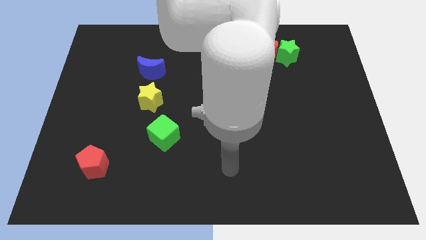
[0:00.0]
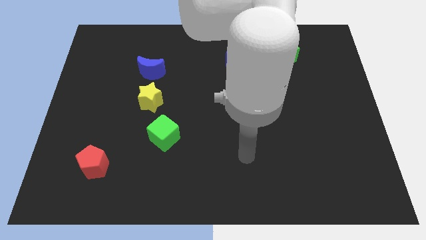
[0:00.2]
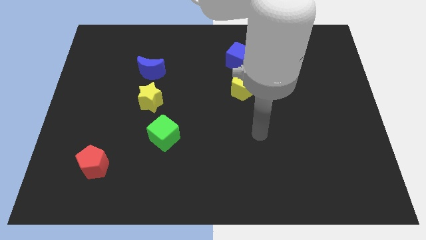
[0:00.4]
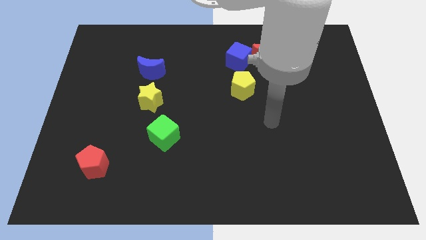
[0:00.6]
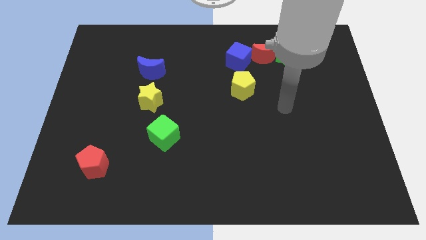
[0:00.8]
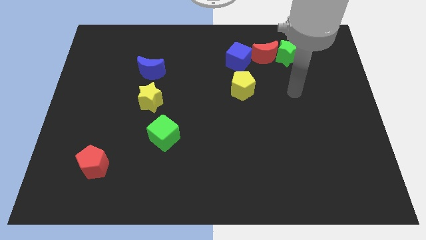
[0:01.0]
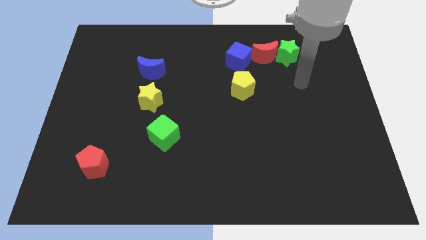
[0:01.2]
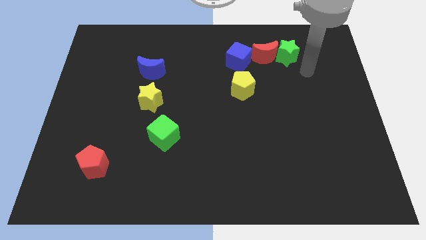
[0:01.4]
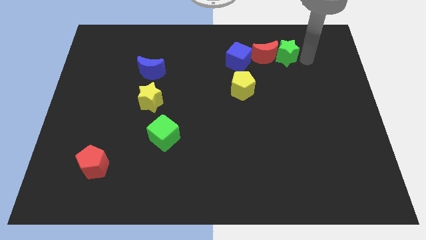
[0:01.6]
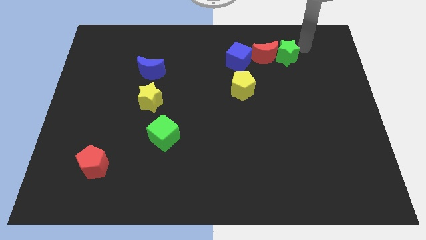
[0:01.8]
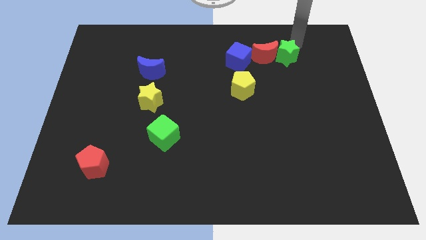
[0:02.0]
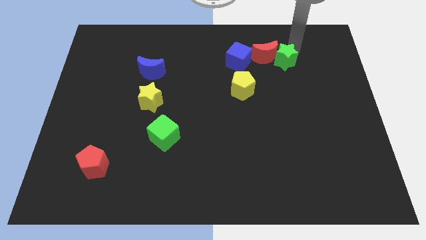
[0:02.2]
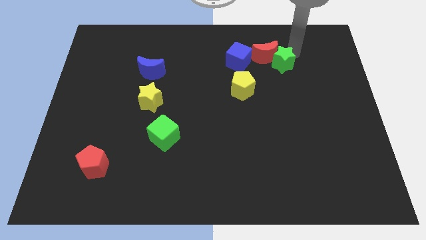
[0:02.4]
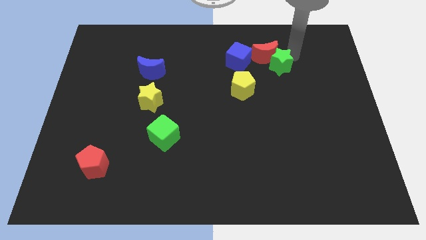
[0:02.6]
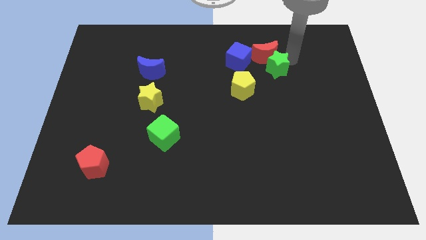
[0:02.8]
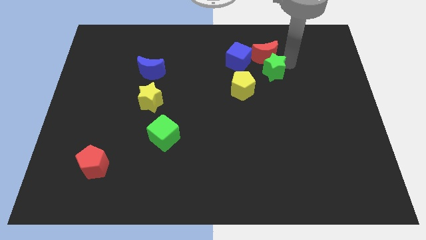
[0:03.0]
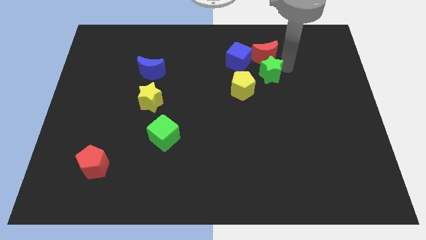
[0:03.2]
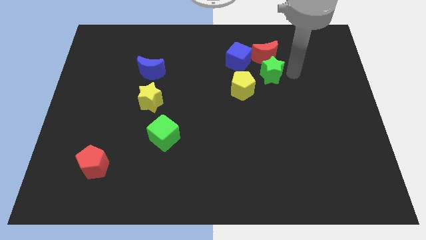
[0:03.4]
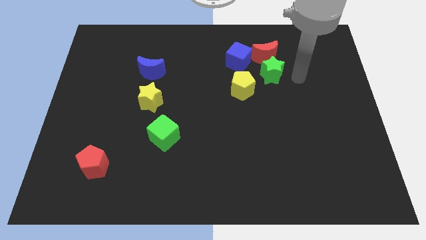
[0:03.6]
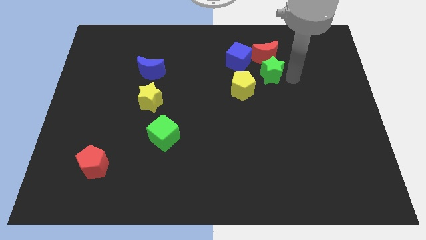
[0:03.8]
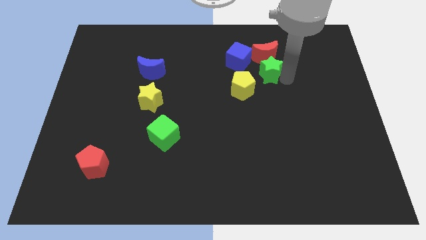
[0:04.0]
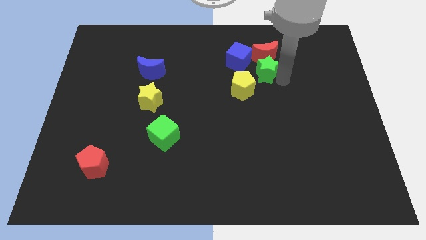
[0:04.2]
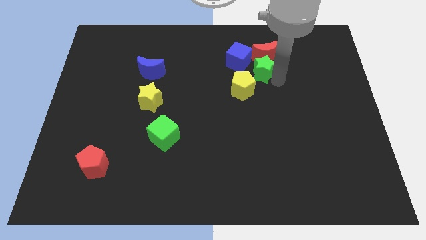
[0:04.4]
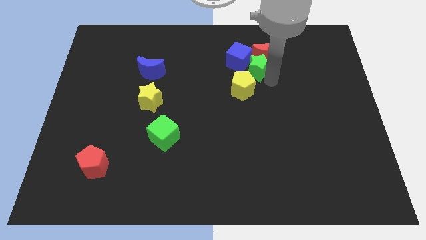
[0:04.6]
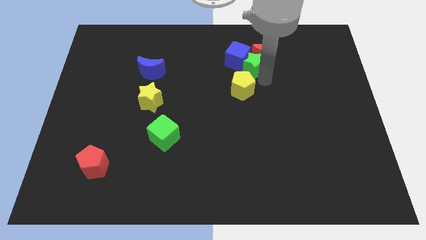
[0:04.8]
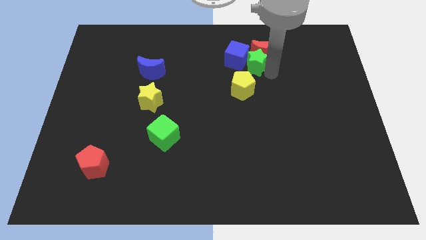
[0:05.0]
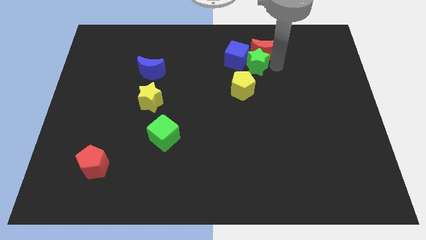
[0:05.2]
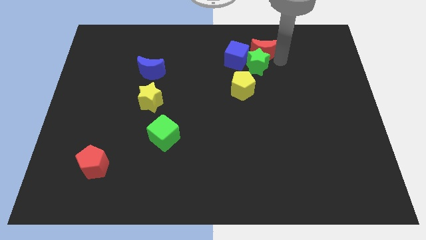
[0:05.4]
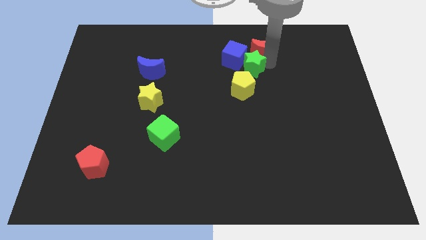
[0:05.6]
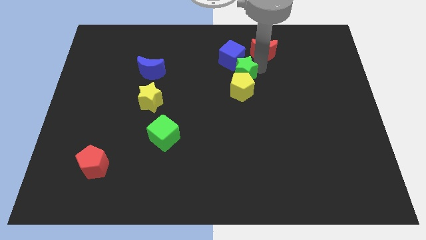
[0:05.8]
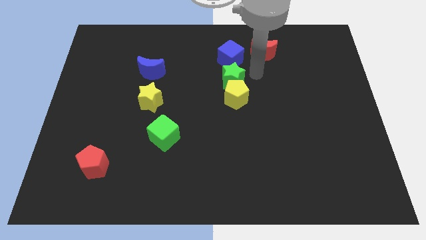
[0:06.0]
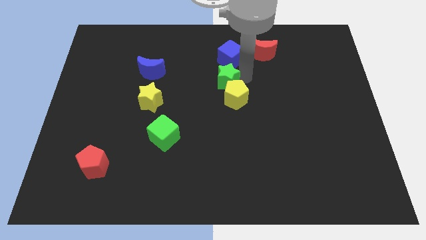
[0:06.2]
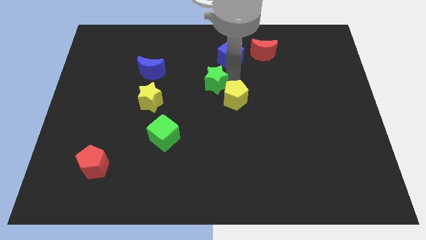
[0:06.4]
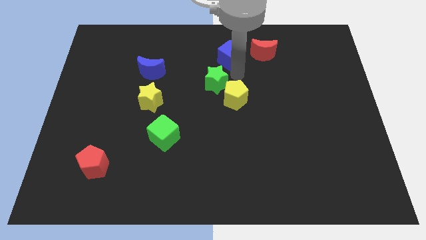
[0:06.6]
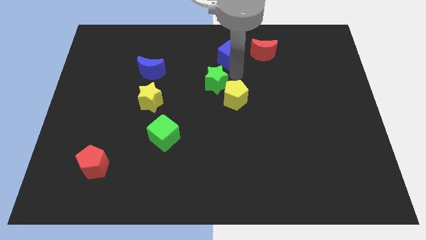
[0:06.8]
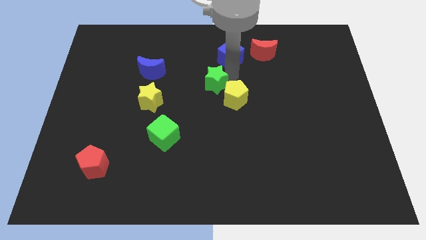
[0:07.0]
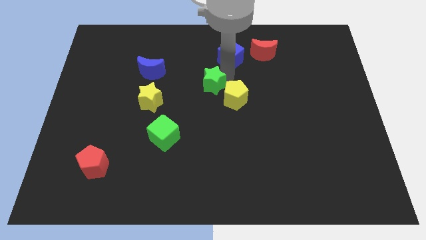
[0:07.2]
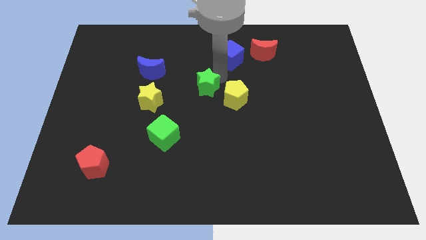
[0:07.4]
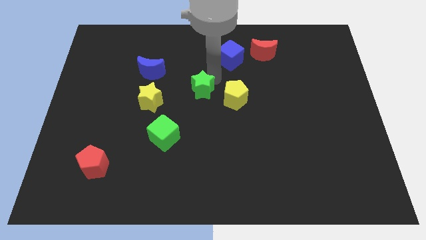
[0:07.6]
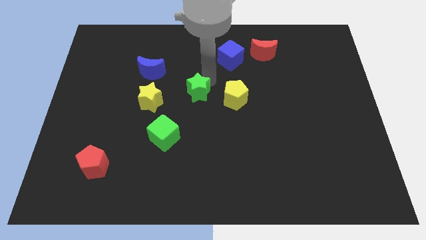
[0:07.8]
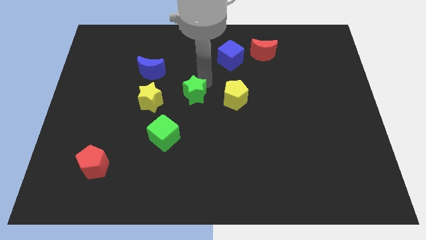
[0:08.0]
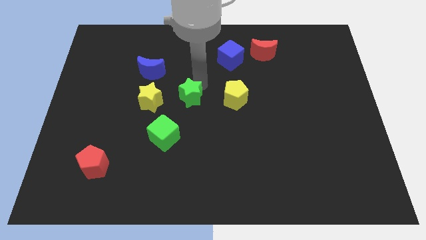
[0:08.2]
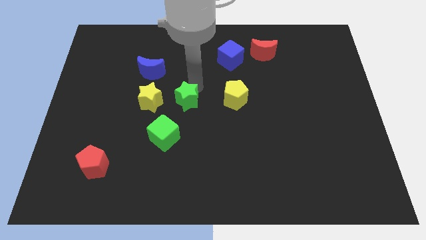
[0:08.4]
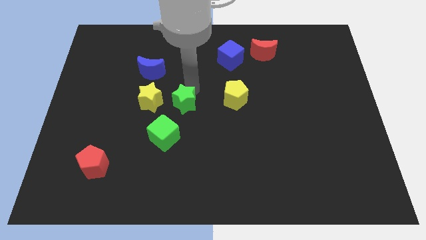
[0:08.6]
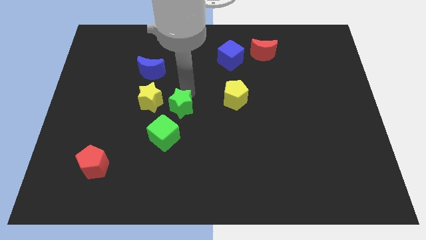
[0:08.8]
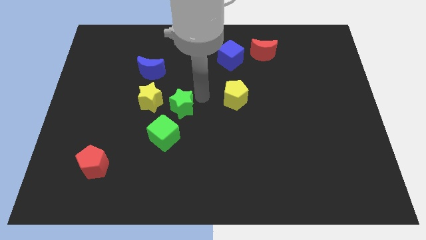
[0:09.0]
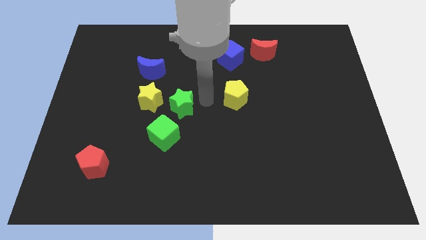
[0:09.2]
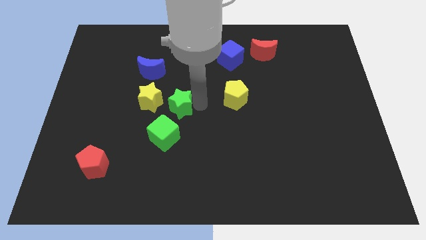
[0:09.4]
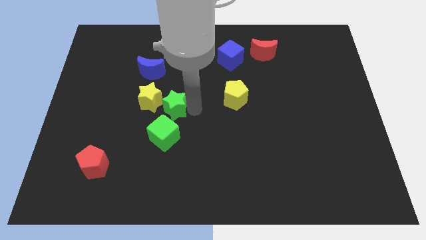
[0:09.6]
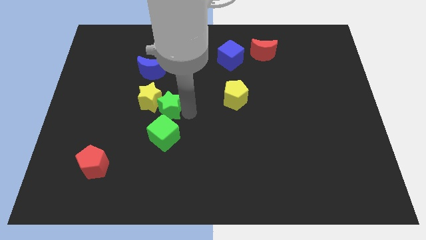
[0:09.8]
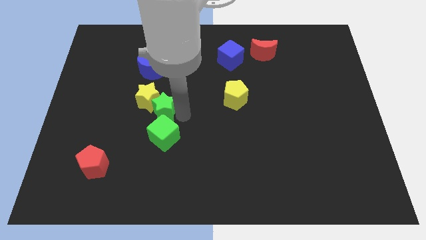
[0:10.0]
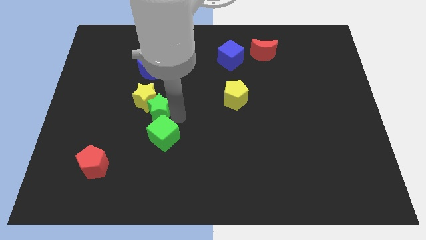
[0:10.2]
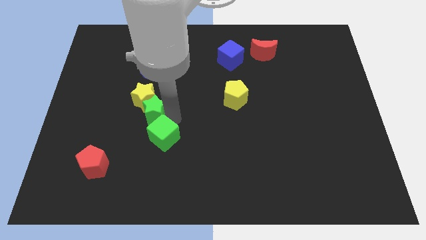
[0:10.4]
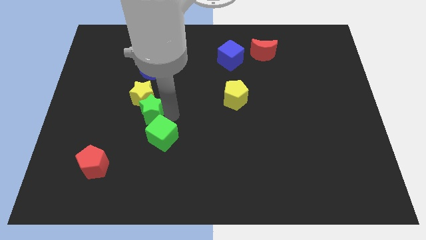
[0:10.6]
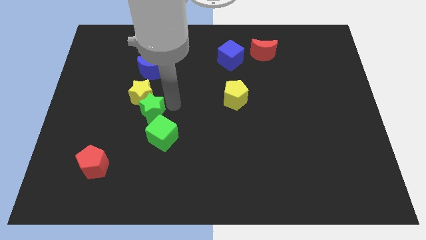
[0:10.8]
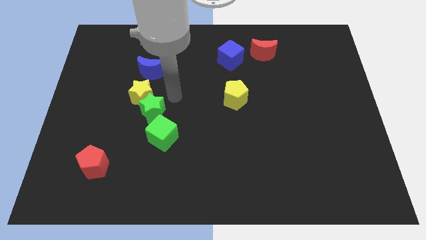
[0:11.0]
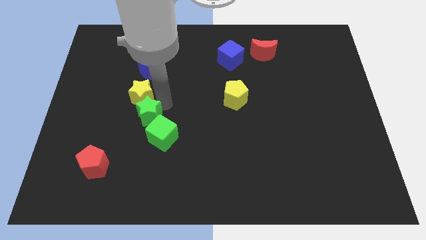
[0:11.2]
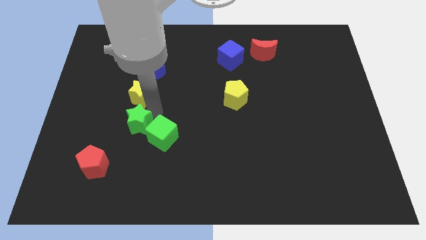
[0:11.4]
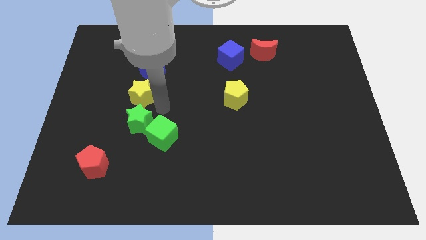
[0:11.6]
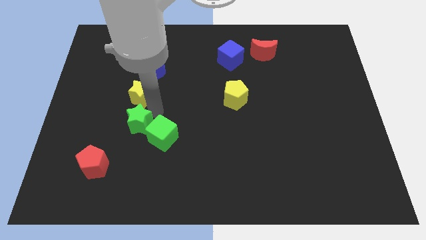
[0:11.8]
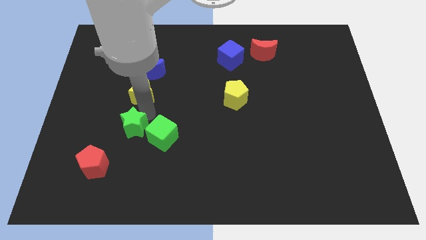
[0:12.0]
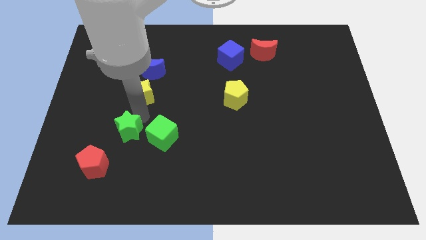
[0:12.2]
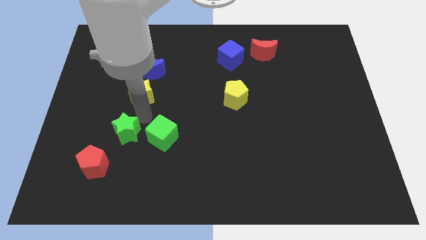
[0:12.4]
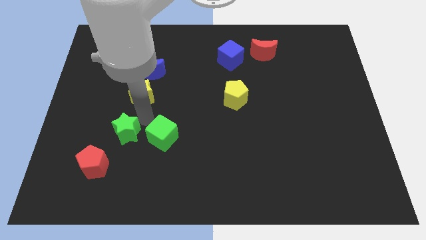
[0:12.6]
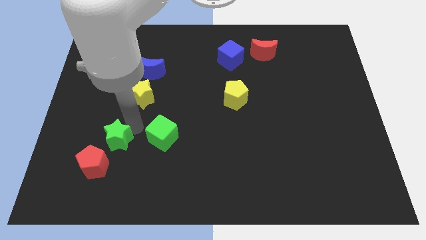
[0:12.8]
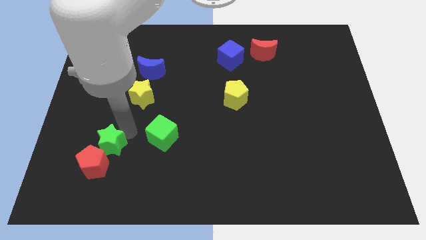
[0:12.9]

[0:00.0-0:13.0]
slide the green star close to the red pentagon
